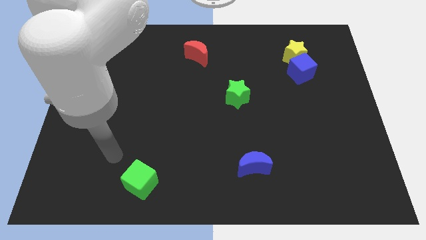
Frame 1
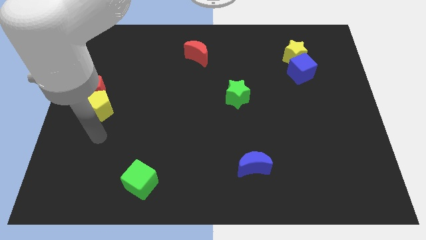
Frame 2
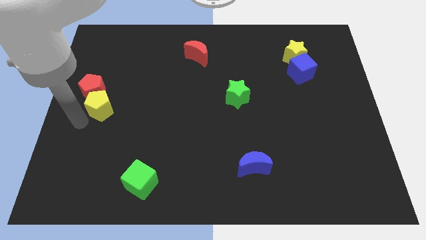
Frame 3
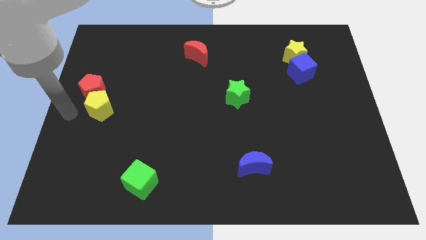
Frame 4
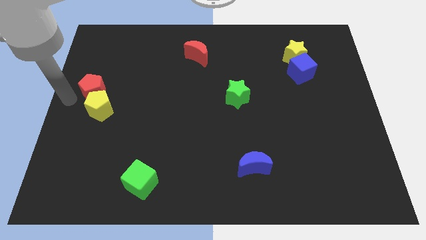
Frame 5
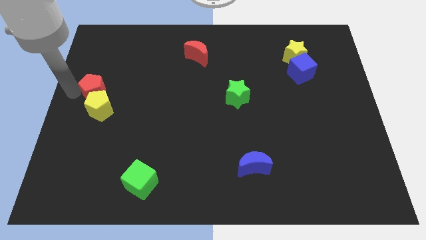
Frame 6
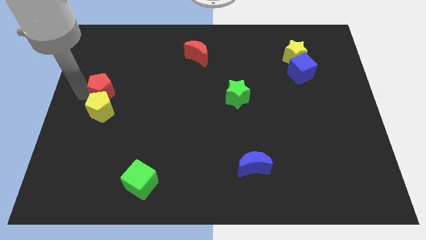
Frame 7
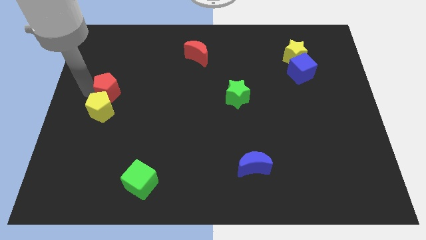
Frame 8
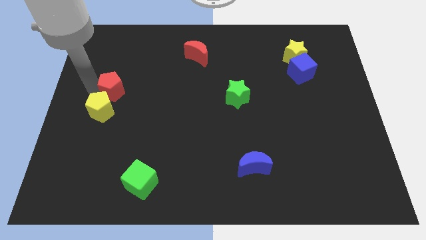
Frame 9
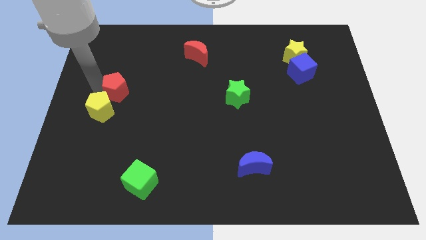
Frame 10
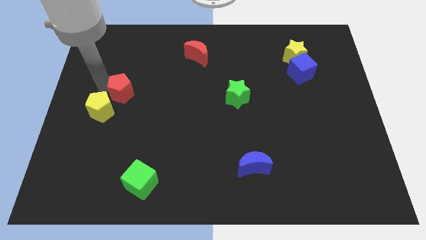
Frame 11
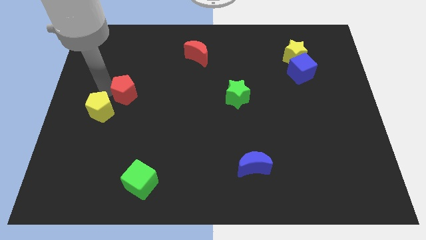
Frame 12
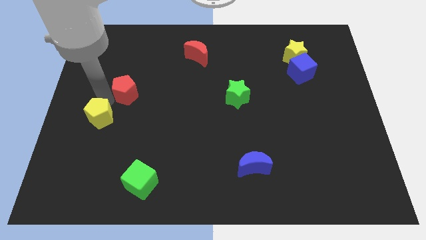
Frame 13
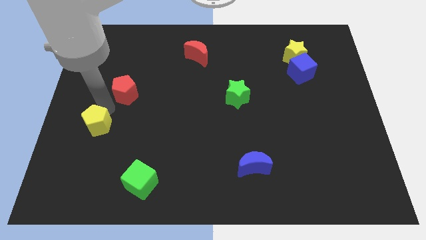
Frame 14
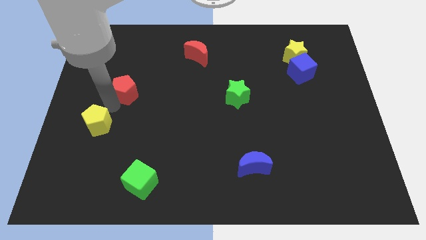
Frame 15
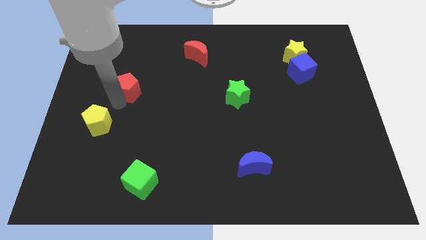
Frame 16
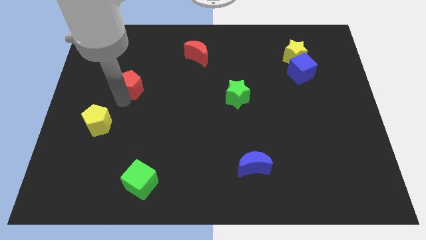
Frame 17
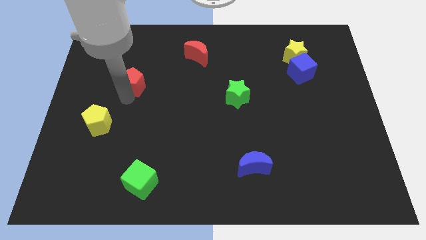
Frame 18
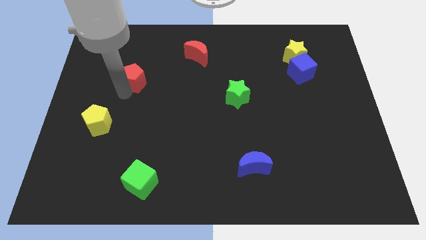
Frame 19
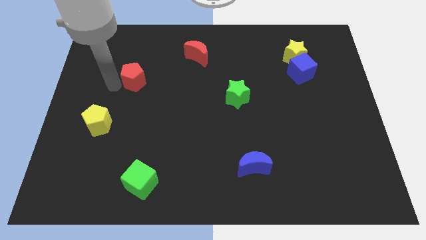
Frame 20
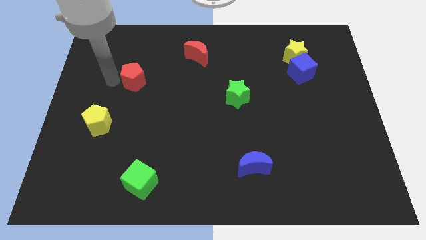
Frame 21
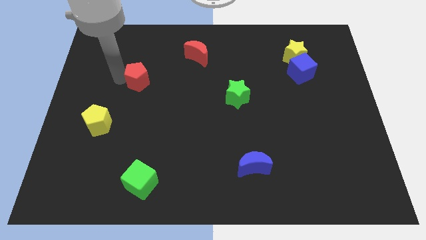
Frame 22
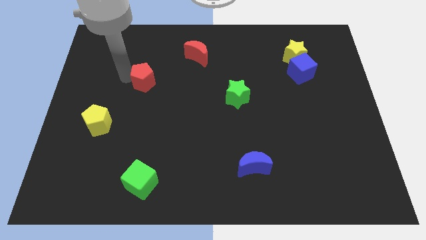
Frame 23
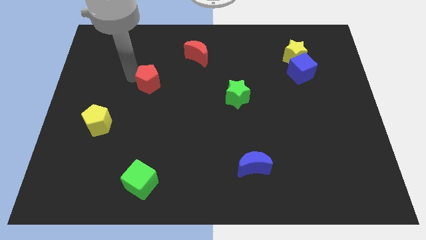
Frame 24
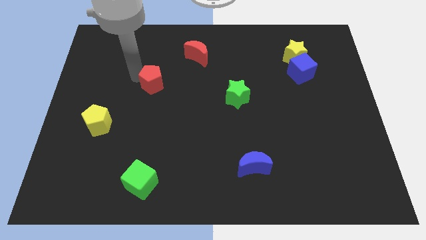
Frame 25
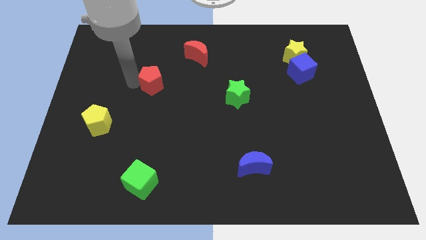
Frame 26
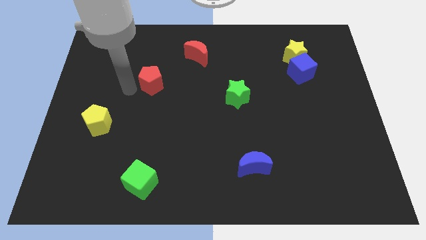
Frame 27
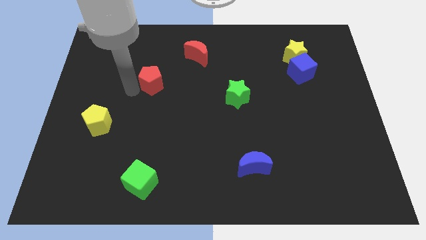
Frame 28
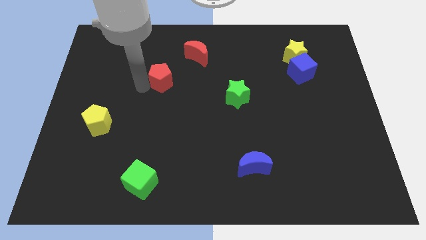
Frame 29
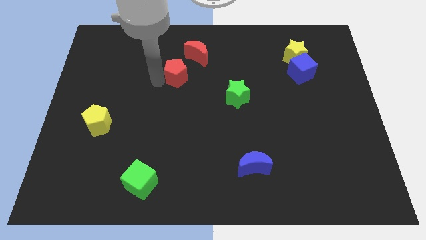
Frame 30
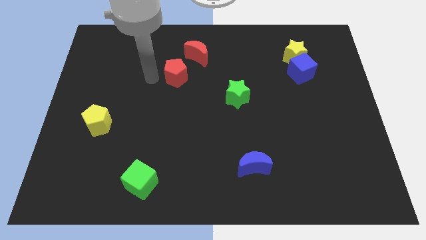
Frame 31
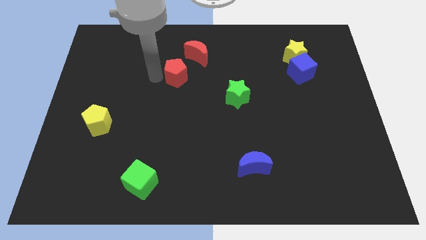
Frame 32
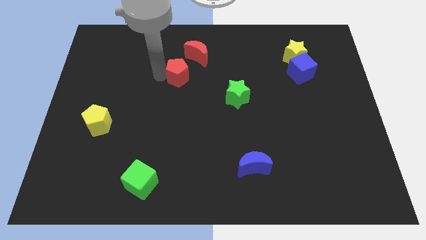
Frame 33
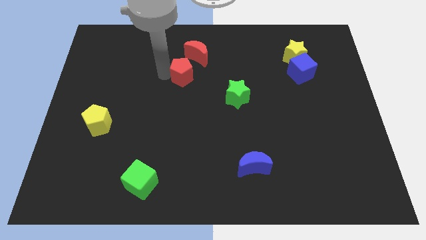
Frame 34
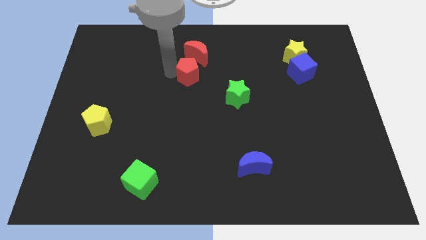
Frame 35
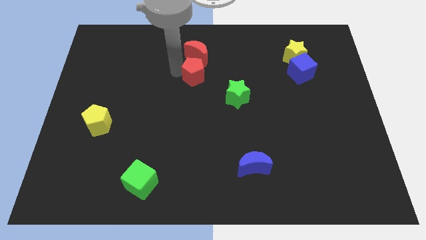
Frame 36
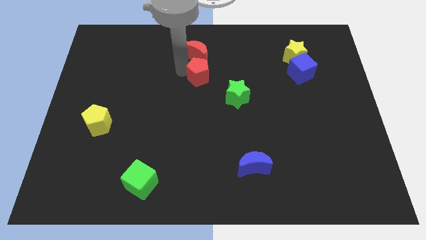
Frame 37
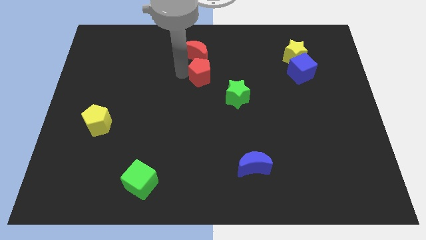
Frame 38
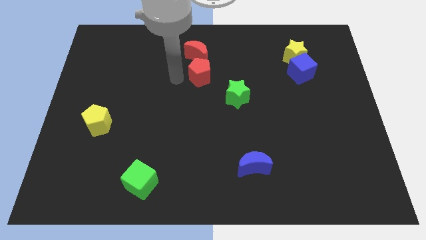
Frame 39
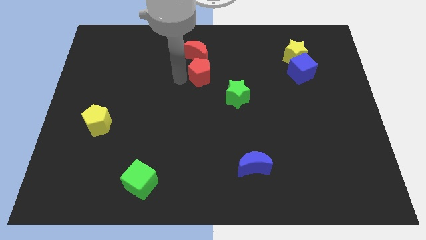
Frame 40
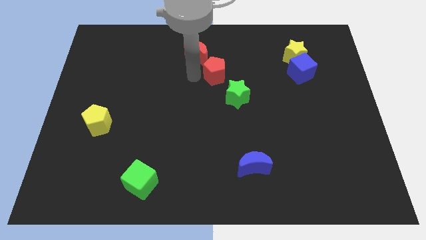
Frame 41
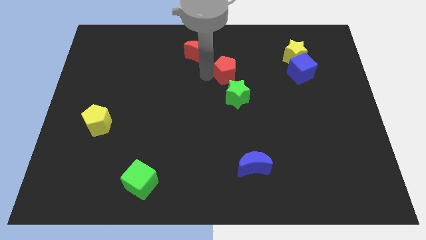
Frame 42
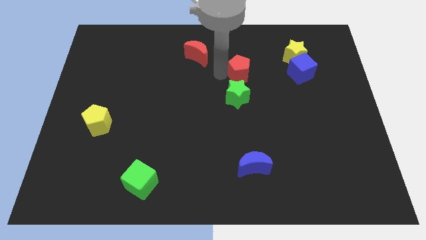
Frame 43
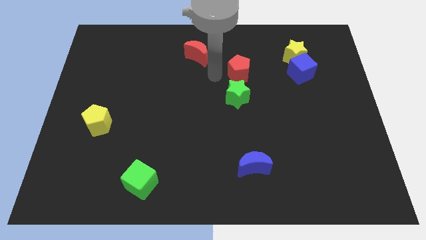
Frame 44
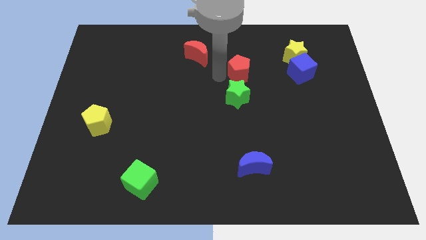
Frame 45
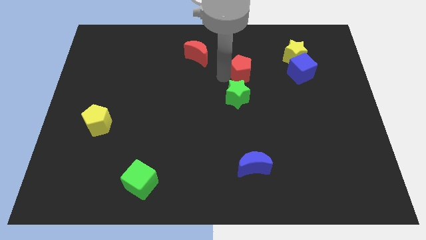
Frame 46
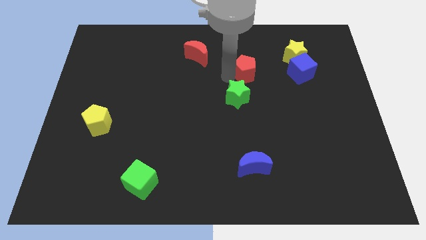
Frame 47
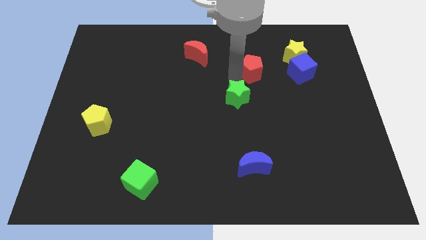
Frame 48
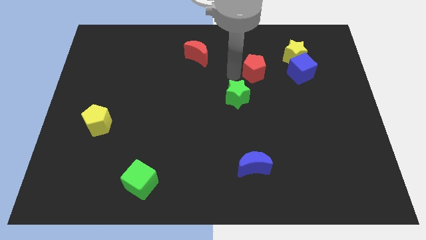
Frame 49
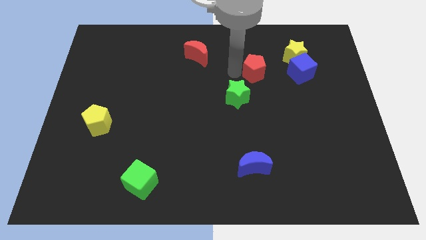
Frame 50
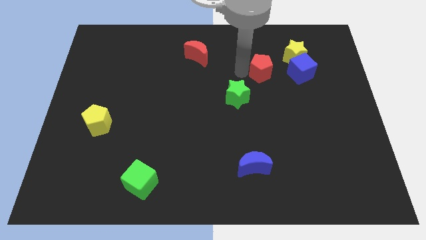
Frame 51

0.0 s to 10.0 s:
push the red pentagon diagonally down and to the left of the yellow star

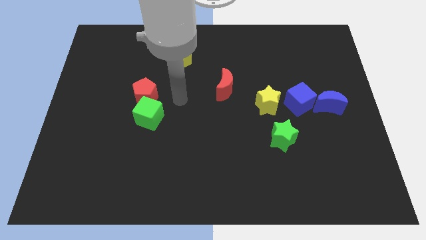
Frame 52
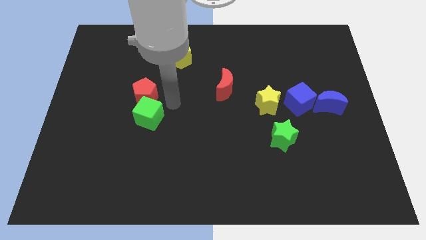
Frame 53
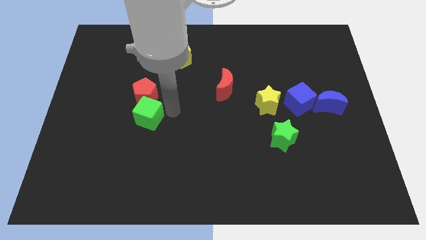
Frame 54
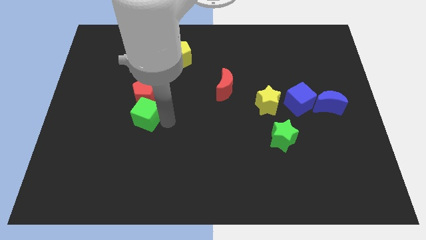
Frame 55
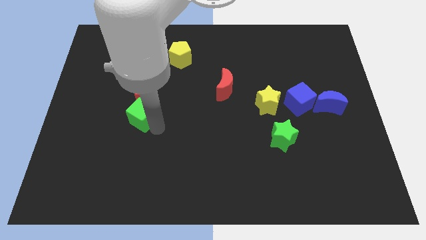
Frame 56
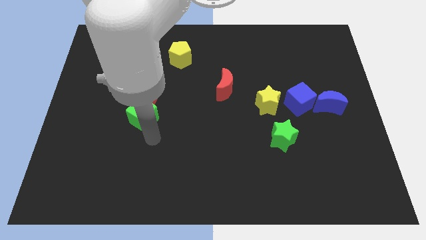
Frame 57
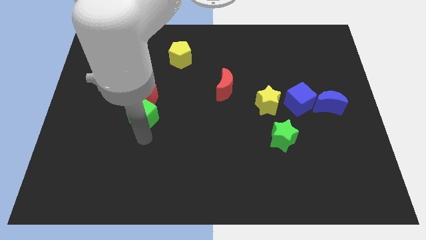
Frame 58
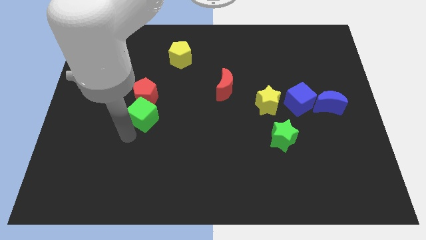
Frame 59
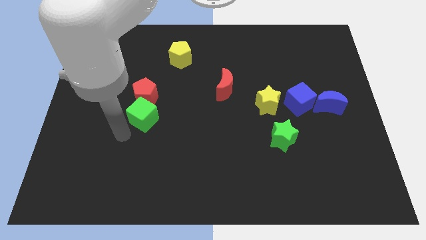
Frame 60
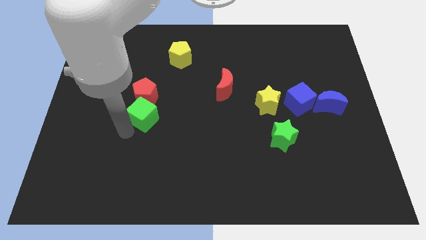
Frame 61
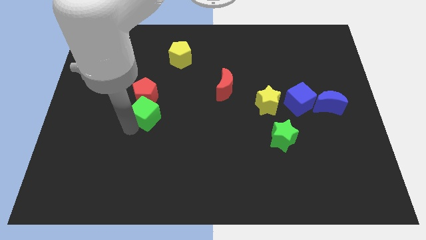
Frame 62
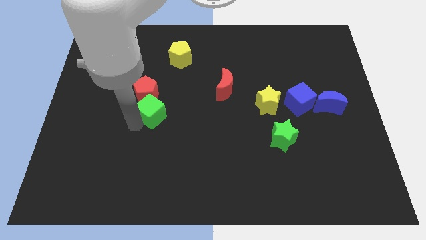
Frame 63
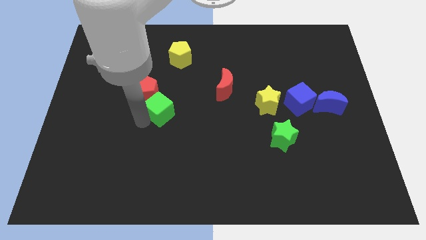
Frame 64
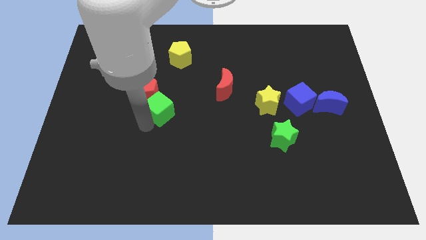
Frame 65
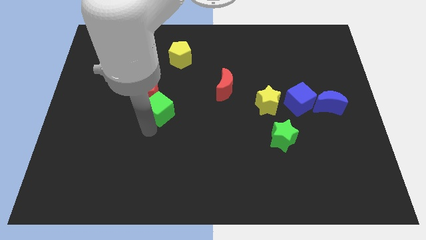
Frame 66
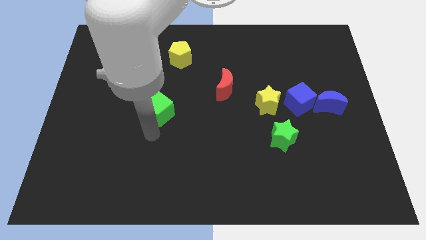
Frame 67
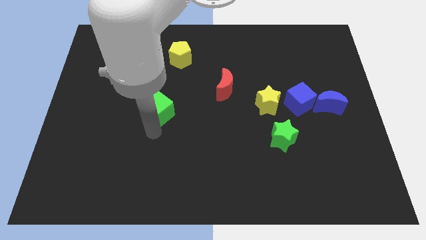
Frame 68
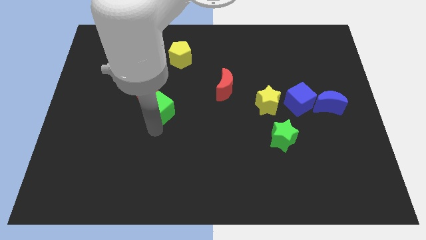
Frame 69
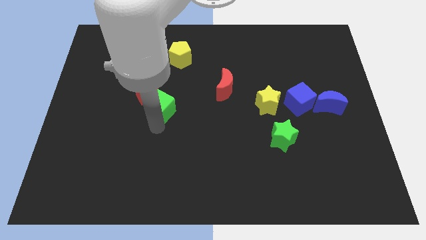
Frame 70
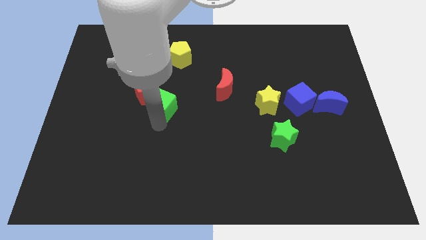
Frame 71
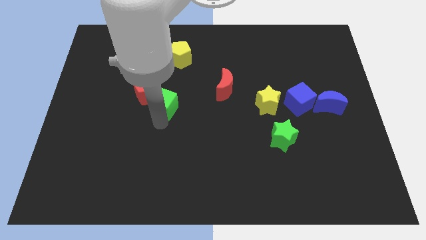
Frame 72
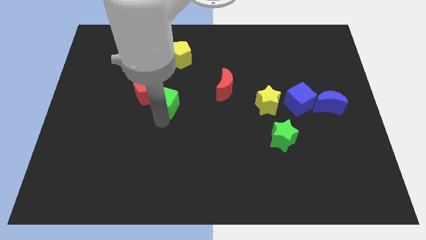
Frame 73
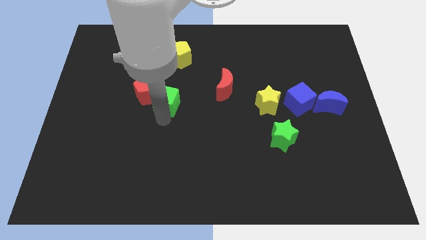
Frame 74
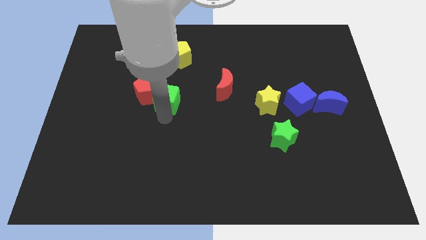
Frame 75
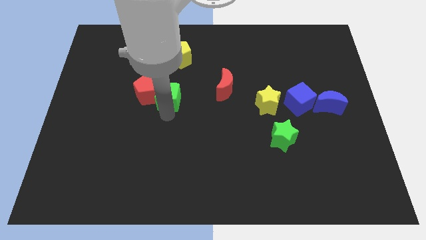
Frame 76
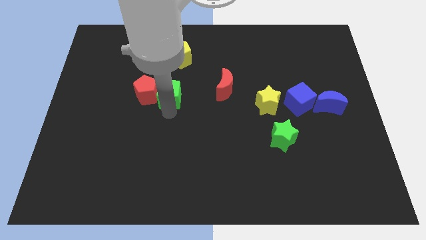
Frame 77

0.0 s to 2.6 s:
slide the green cube to the top right of the red pentagon
